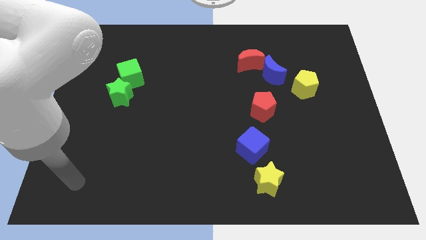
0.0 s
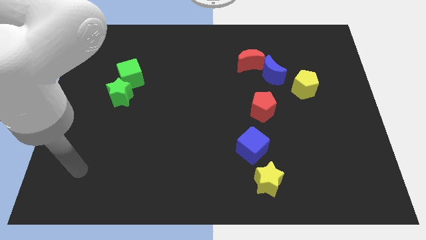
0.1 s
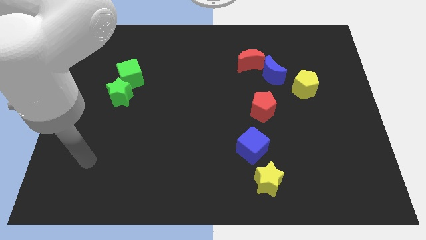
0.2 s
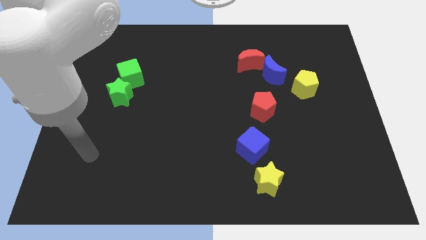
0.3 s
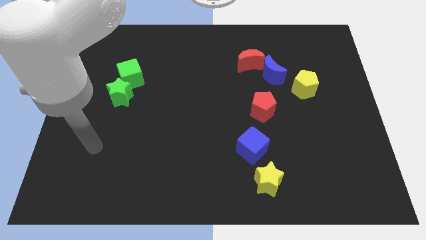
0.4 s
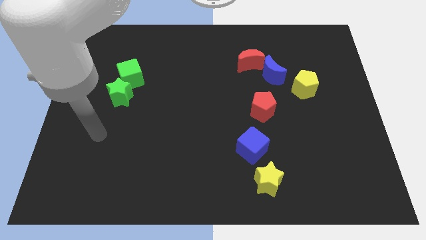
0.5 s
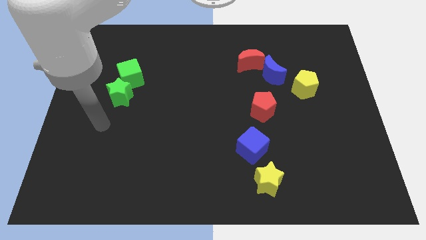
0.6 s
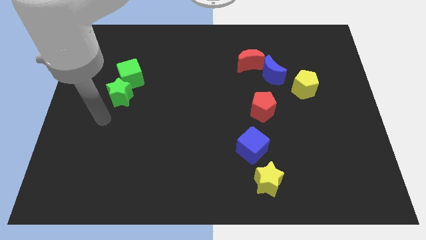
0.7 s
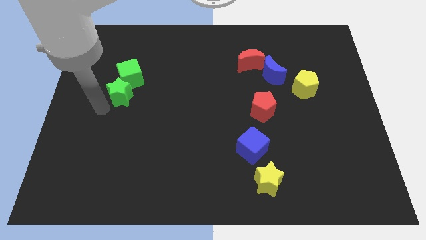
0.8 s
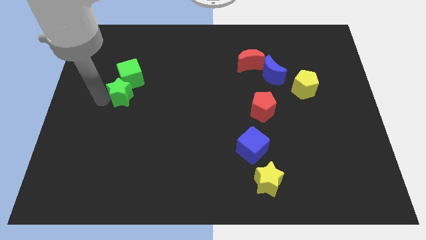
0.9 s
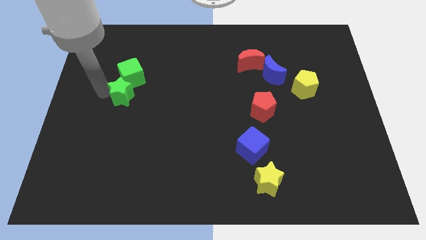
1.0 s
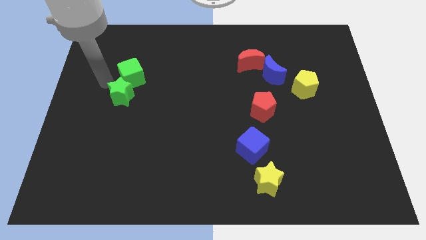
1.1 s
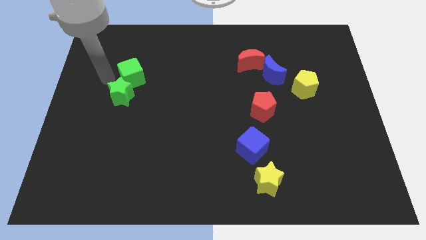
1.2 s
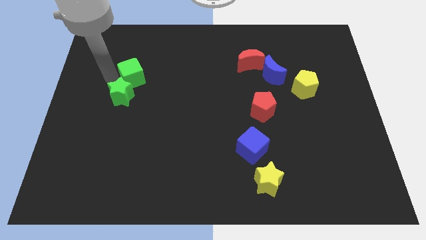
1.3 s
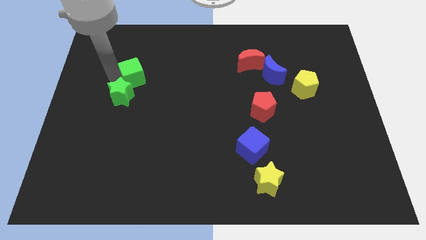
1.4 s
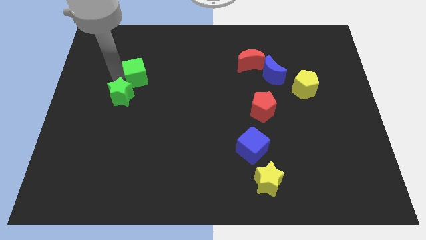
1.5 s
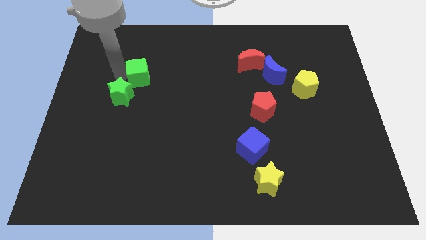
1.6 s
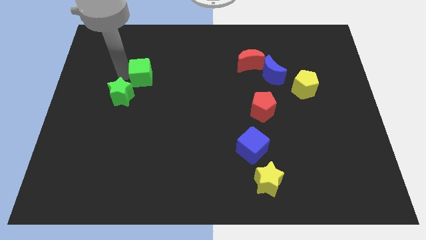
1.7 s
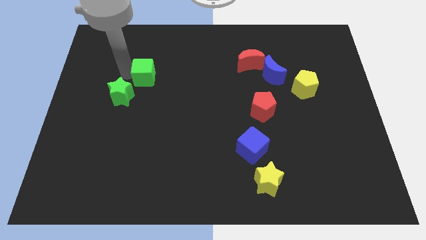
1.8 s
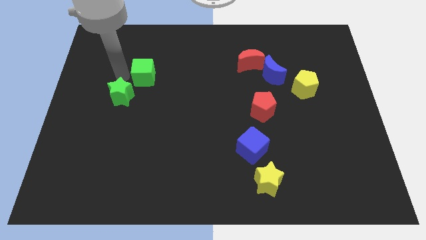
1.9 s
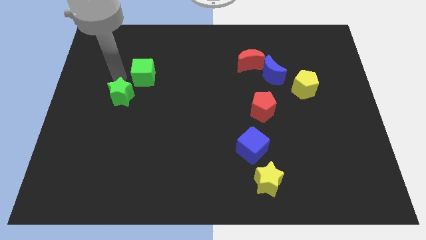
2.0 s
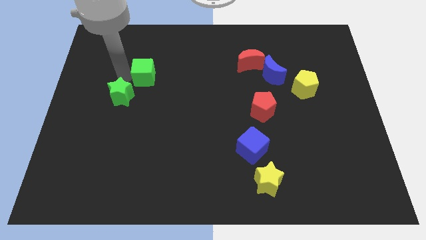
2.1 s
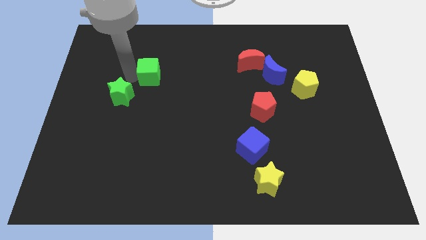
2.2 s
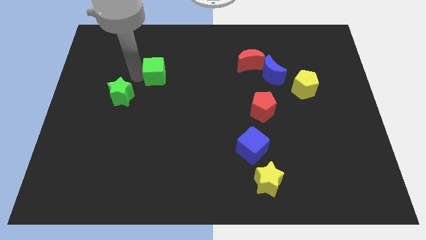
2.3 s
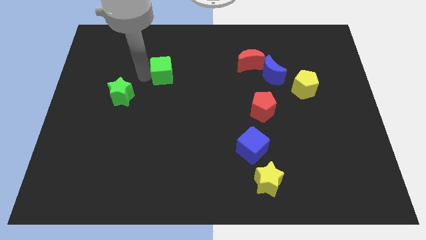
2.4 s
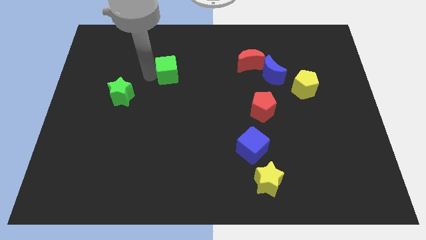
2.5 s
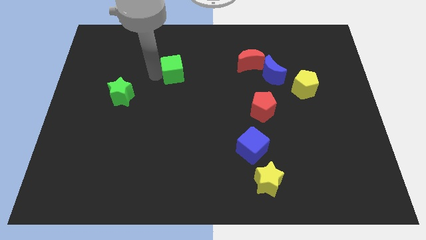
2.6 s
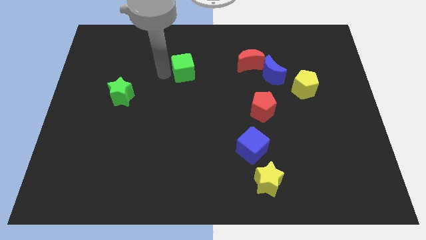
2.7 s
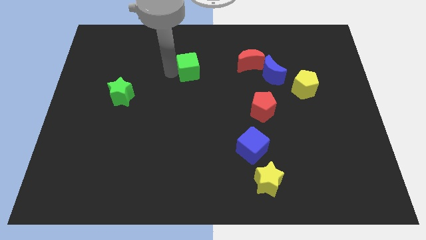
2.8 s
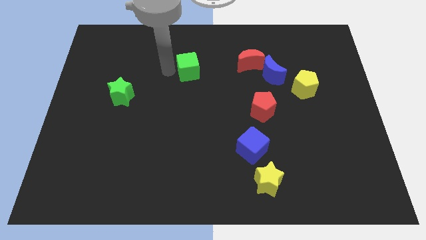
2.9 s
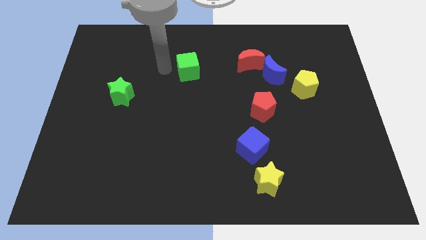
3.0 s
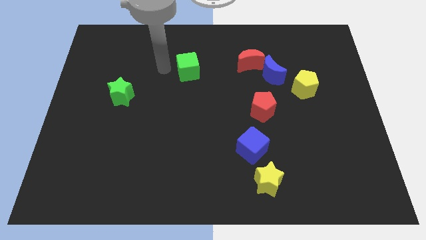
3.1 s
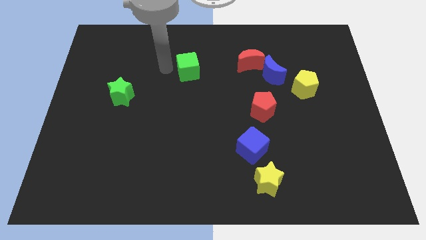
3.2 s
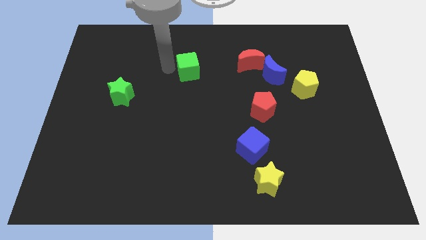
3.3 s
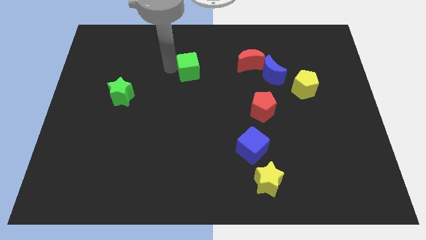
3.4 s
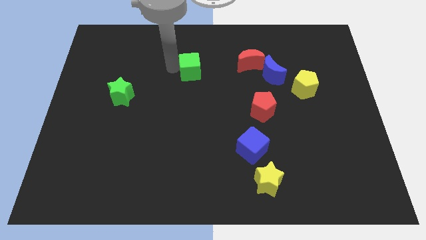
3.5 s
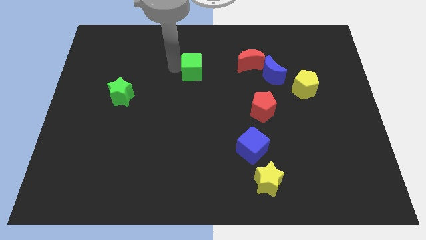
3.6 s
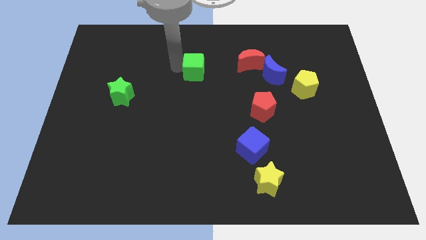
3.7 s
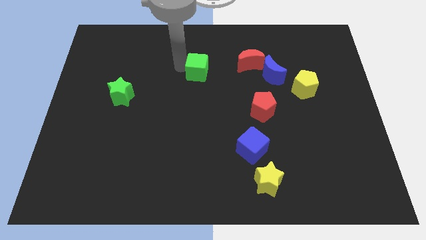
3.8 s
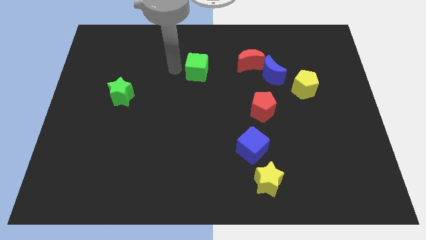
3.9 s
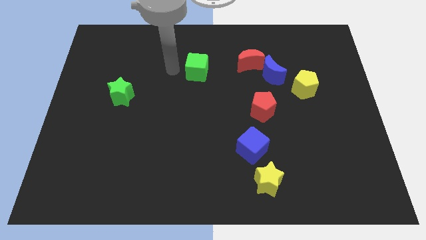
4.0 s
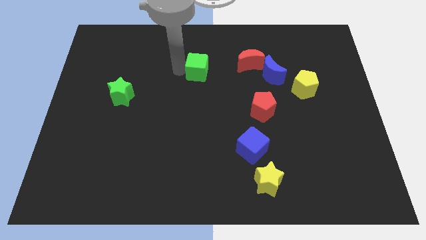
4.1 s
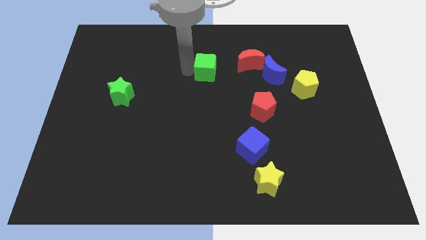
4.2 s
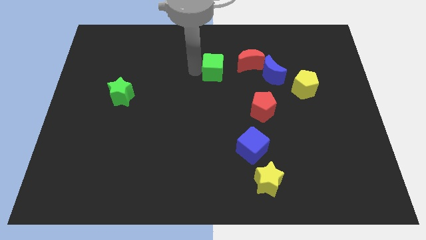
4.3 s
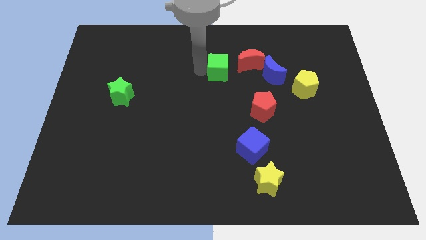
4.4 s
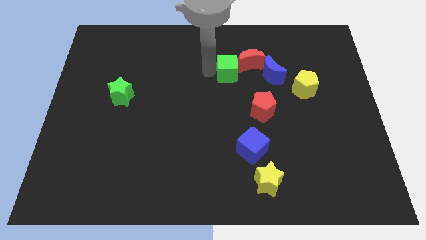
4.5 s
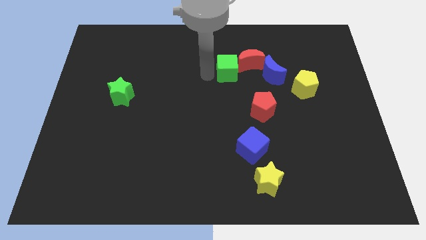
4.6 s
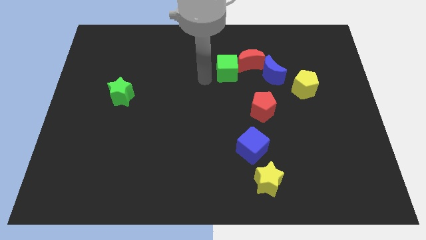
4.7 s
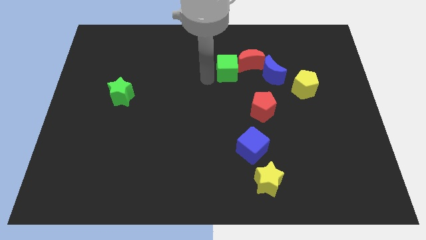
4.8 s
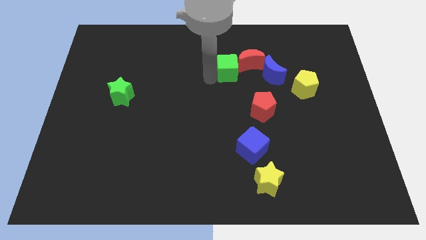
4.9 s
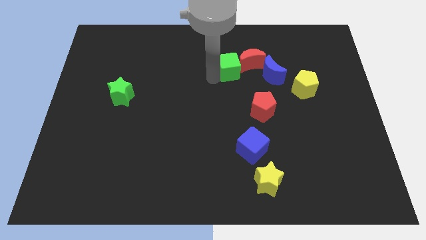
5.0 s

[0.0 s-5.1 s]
push the green cube close to the red moon

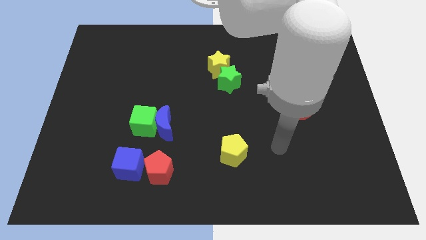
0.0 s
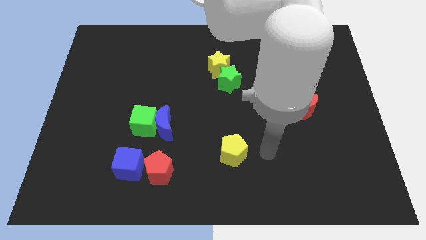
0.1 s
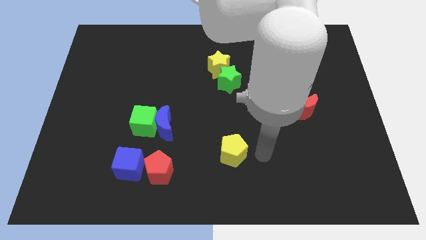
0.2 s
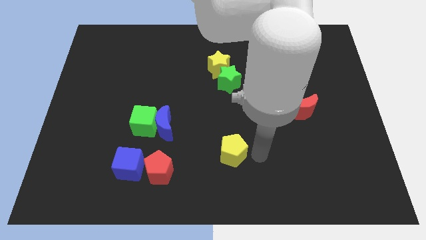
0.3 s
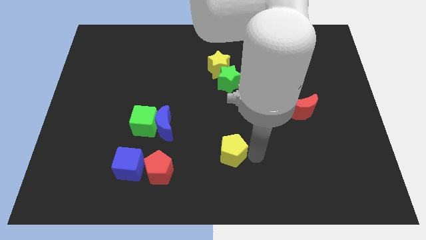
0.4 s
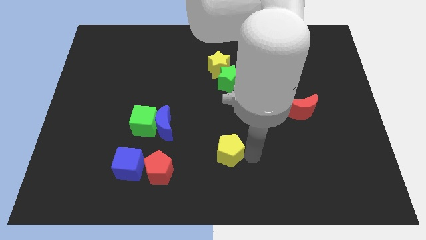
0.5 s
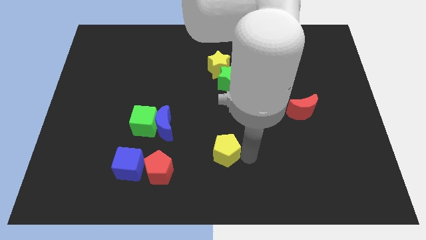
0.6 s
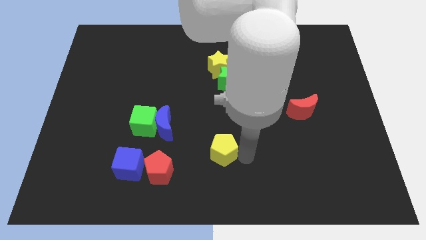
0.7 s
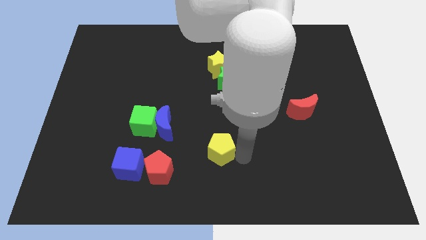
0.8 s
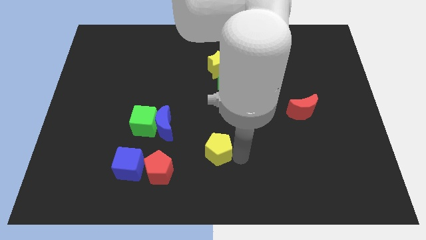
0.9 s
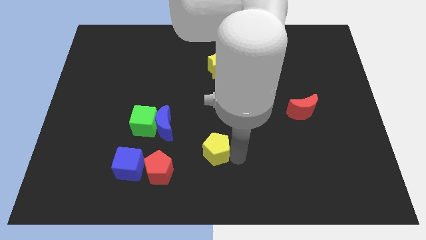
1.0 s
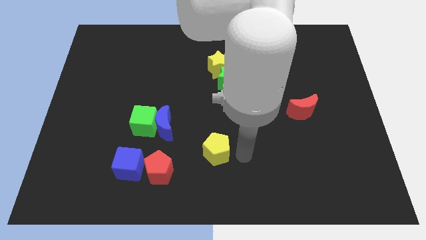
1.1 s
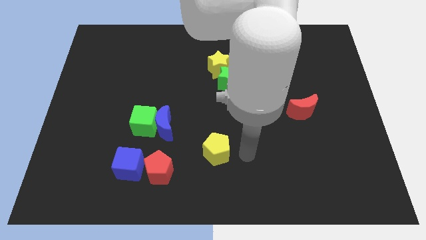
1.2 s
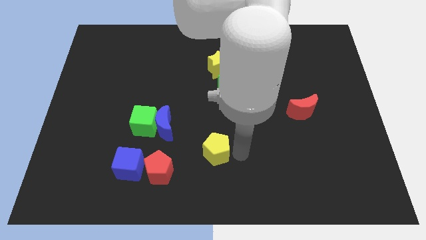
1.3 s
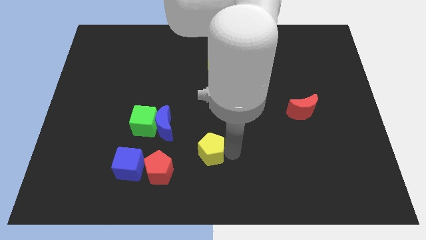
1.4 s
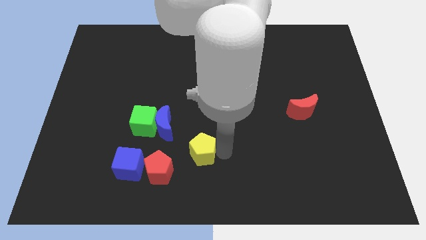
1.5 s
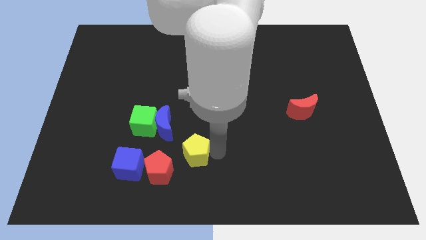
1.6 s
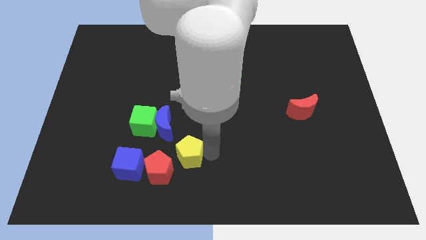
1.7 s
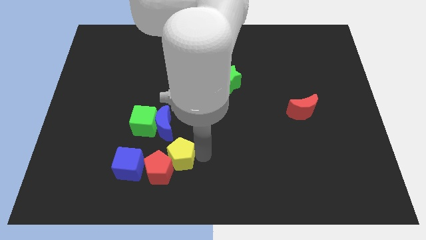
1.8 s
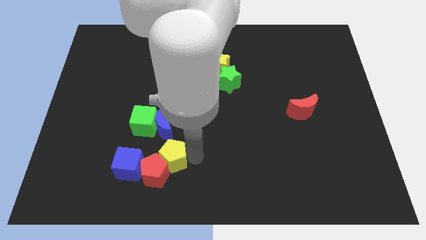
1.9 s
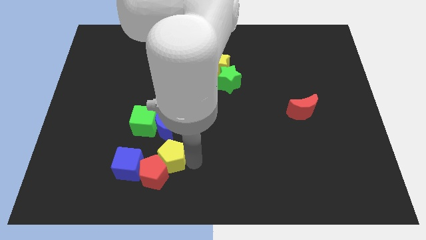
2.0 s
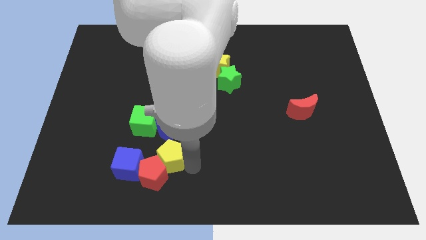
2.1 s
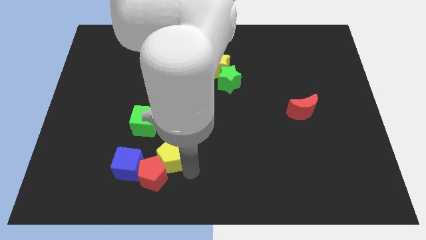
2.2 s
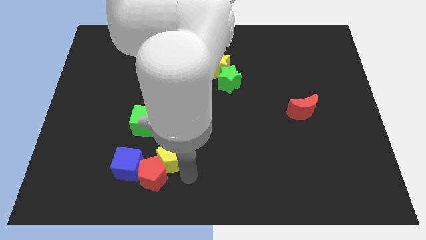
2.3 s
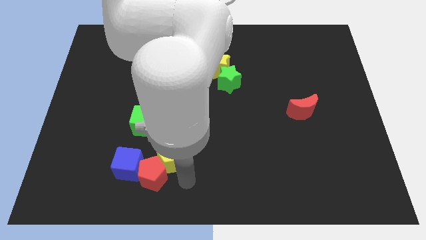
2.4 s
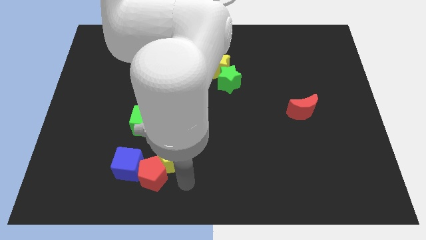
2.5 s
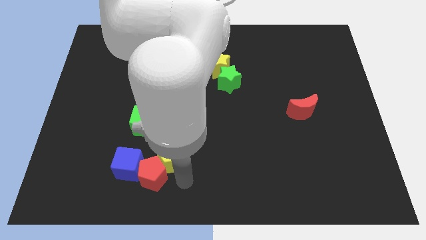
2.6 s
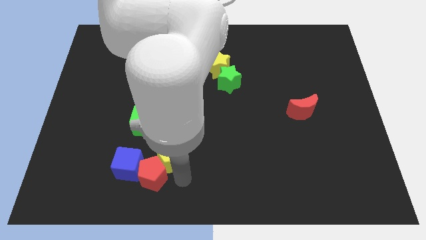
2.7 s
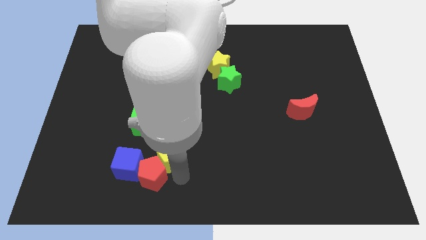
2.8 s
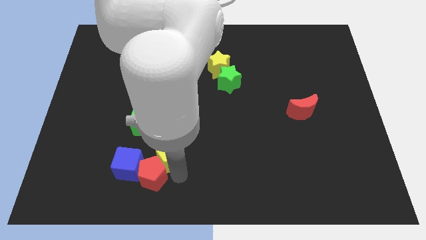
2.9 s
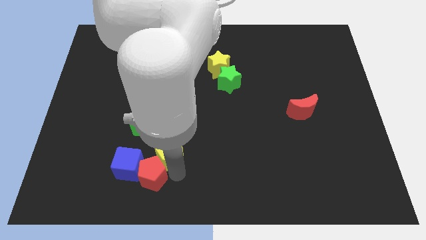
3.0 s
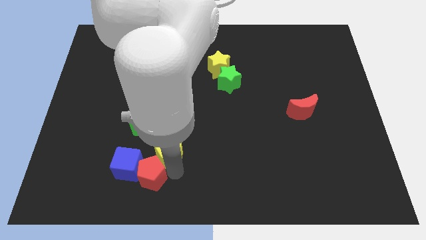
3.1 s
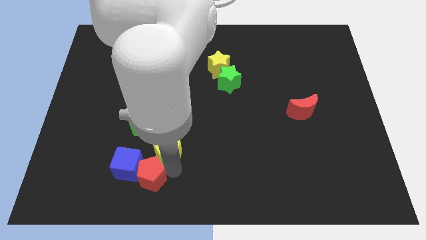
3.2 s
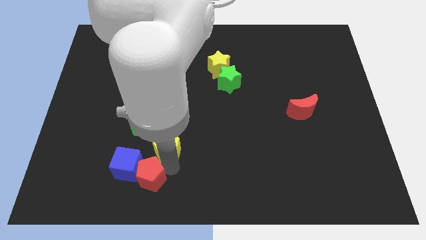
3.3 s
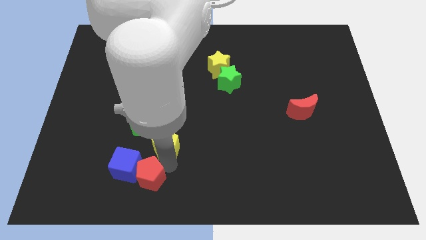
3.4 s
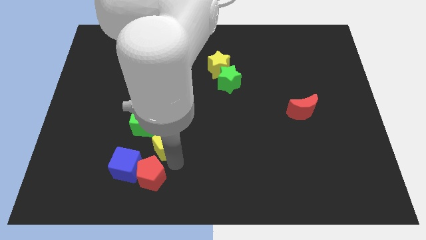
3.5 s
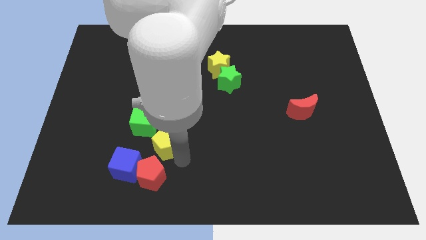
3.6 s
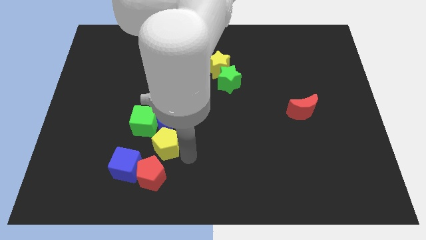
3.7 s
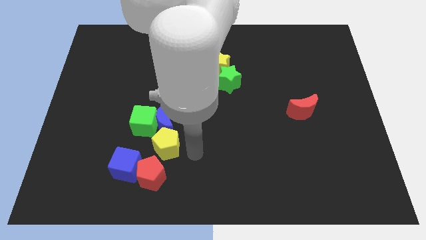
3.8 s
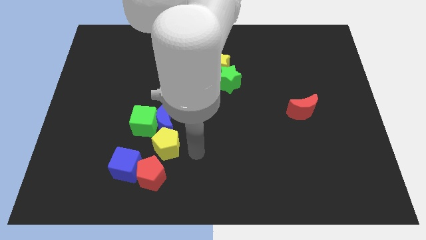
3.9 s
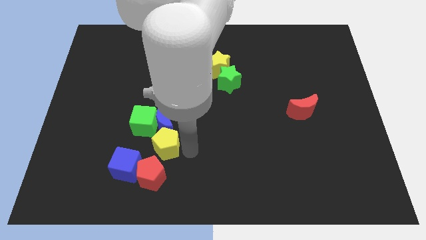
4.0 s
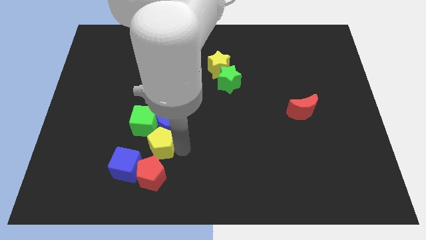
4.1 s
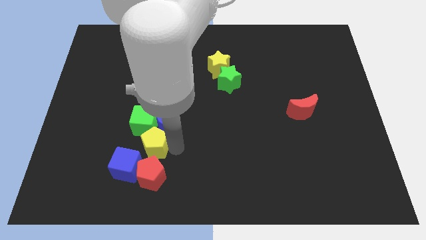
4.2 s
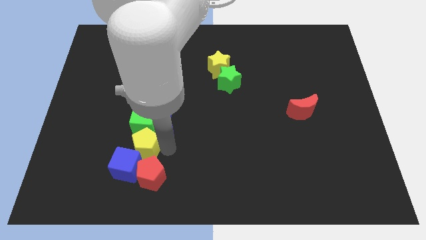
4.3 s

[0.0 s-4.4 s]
slide the yellow pentagon towards the green cube
